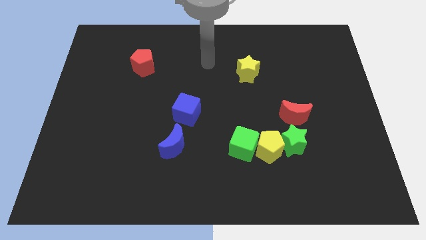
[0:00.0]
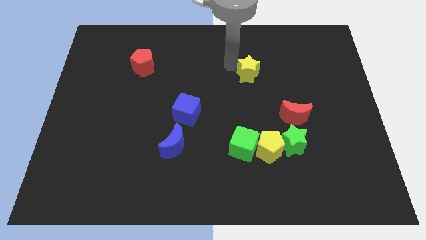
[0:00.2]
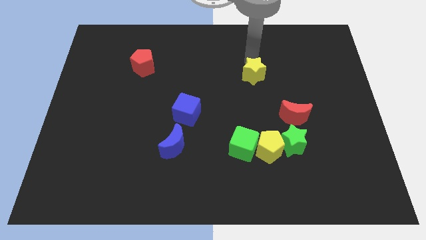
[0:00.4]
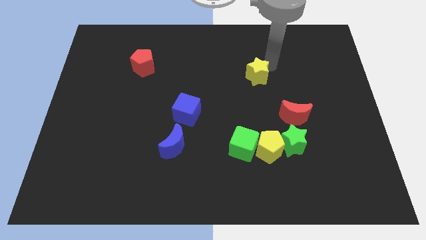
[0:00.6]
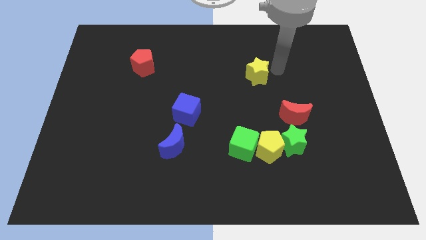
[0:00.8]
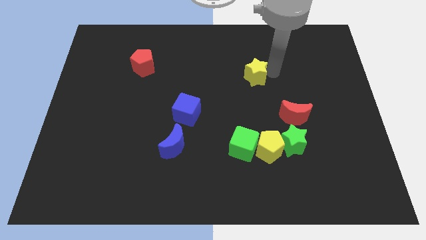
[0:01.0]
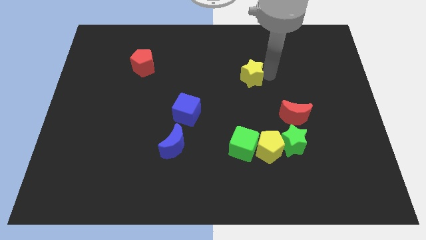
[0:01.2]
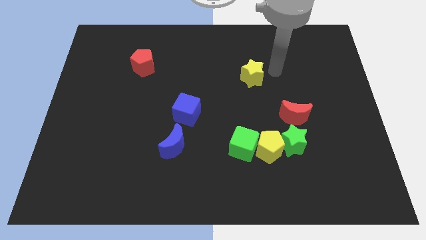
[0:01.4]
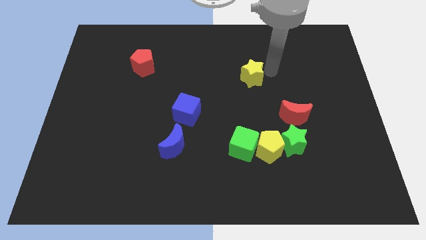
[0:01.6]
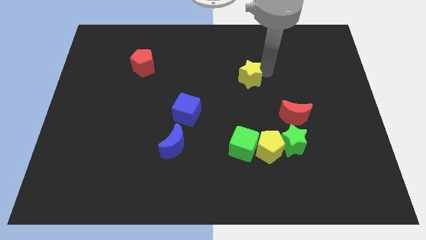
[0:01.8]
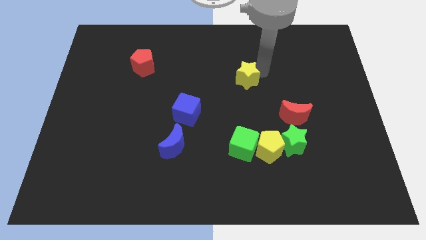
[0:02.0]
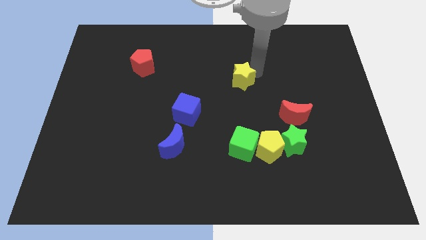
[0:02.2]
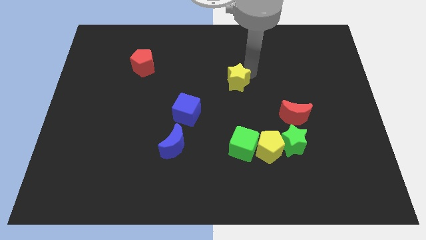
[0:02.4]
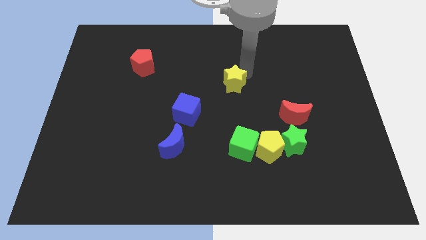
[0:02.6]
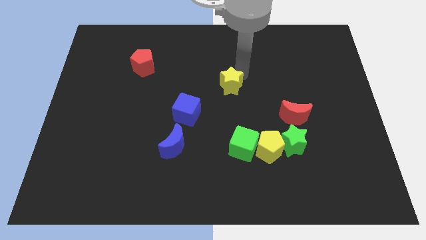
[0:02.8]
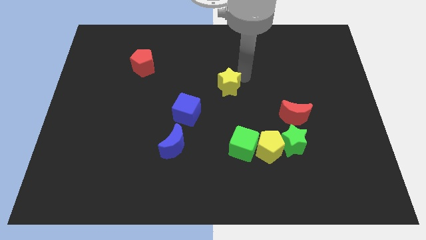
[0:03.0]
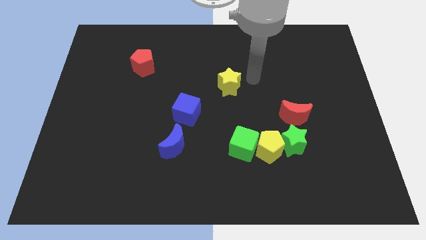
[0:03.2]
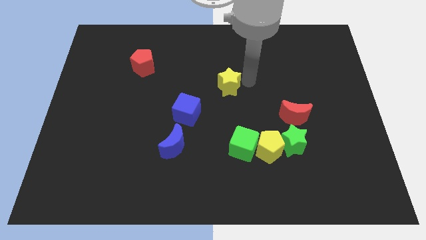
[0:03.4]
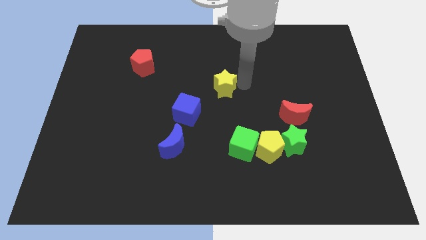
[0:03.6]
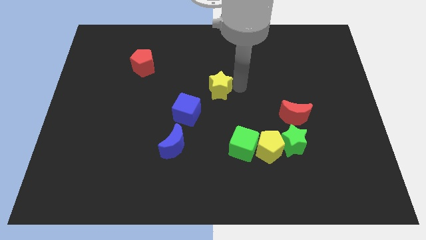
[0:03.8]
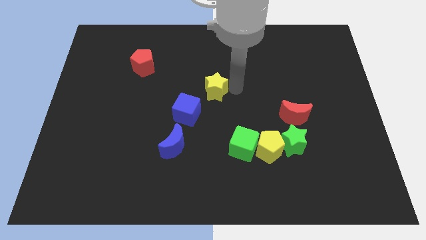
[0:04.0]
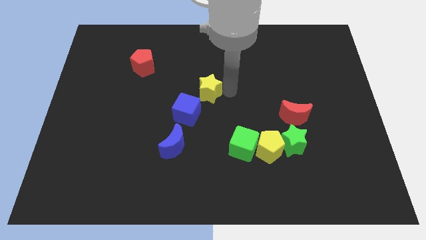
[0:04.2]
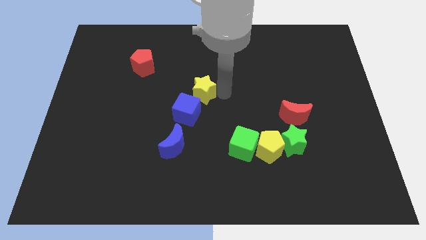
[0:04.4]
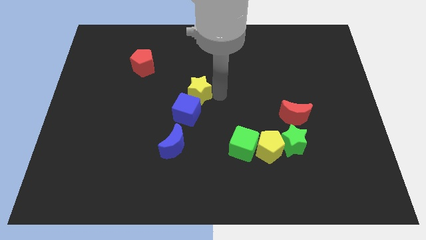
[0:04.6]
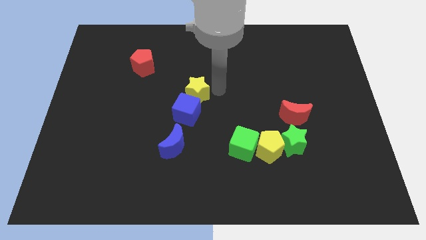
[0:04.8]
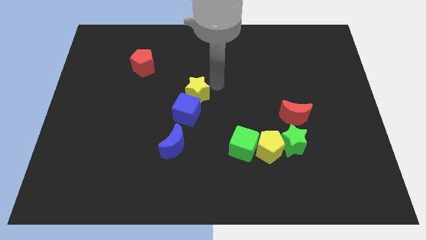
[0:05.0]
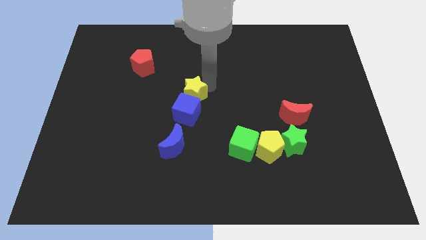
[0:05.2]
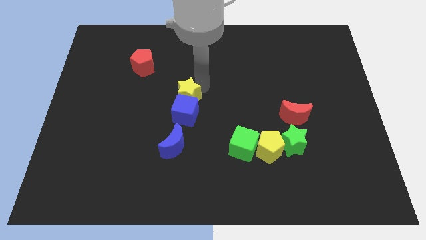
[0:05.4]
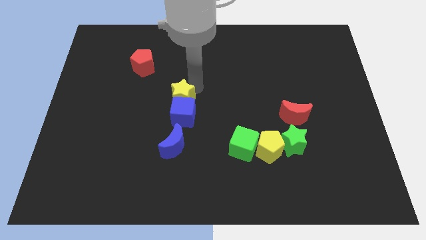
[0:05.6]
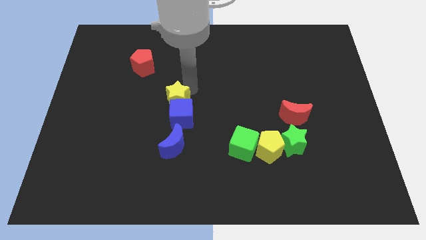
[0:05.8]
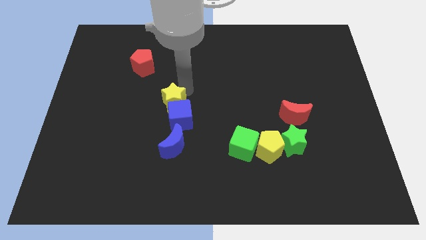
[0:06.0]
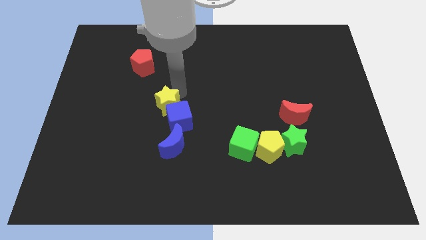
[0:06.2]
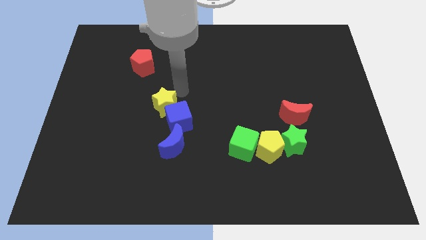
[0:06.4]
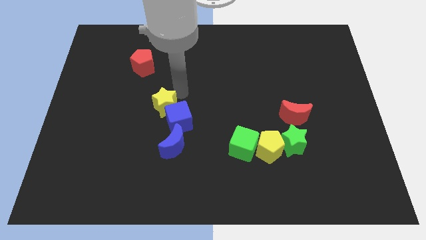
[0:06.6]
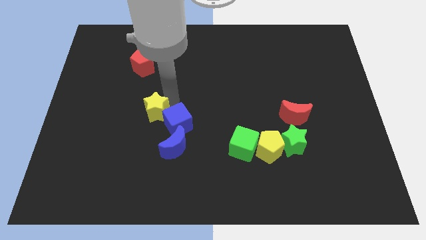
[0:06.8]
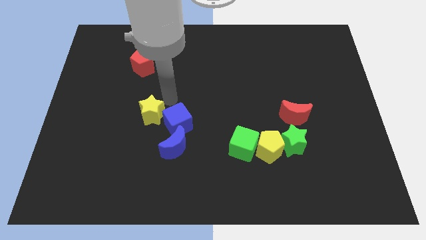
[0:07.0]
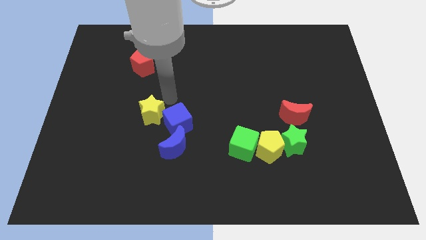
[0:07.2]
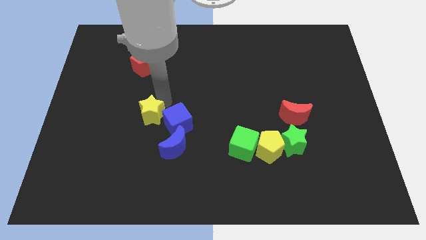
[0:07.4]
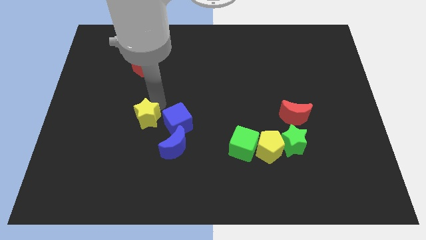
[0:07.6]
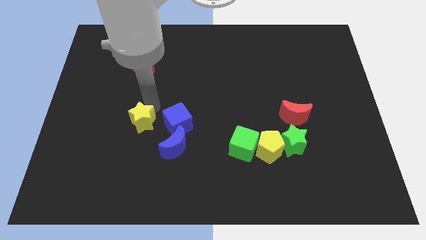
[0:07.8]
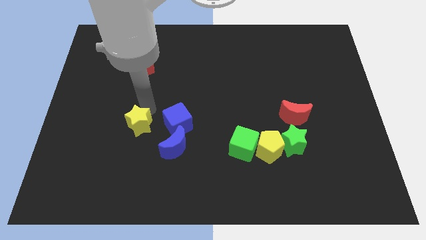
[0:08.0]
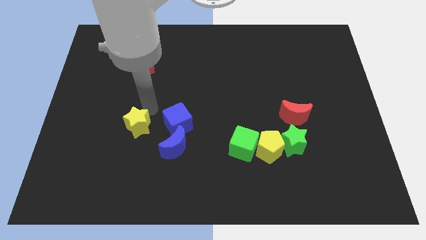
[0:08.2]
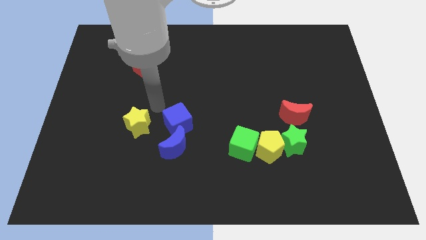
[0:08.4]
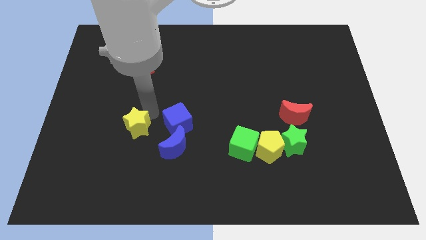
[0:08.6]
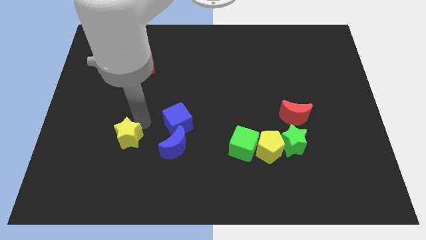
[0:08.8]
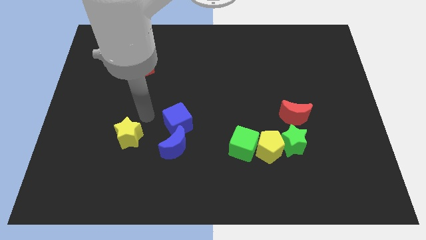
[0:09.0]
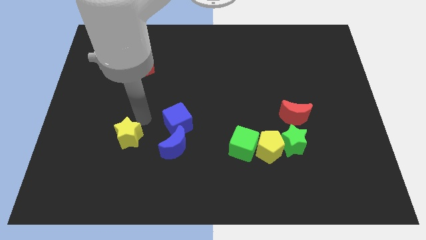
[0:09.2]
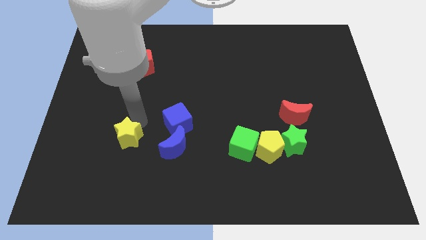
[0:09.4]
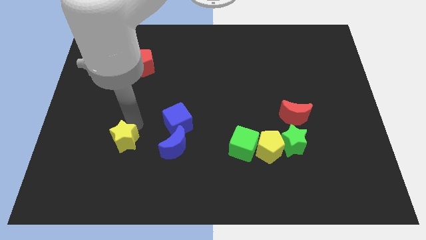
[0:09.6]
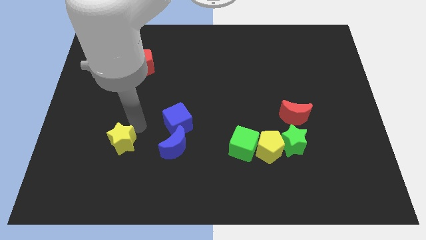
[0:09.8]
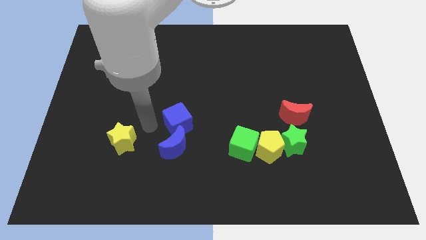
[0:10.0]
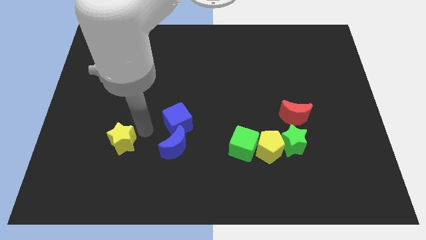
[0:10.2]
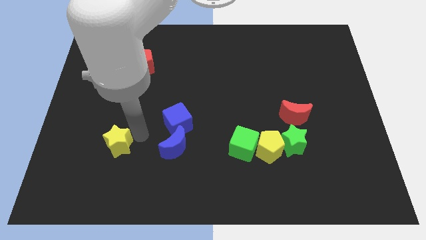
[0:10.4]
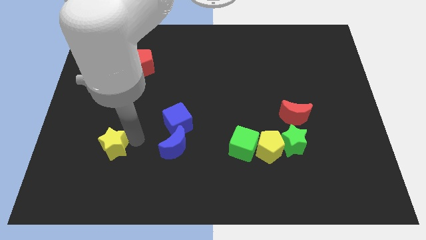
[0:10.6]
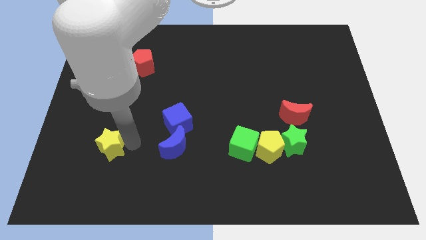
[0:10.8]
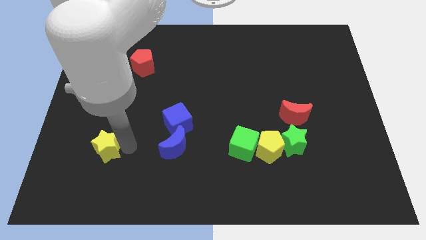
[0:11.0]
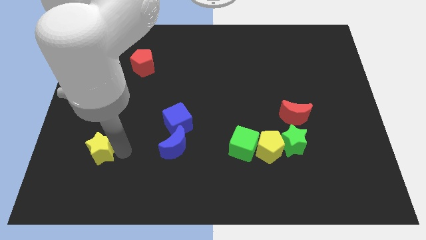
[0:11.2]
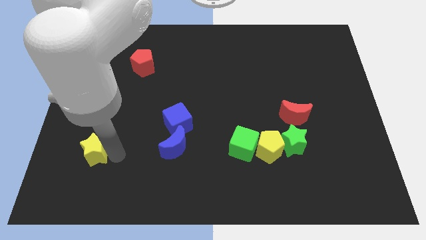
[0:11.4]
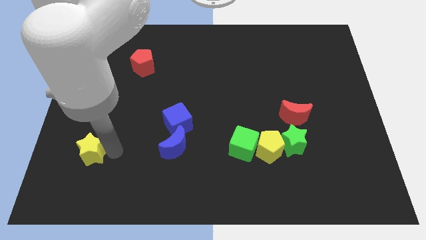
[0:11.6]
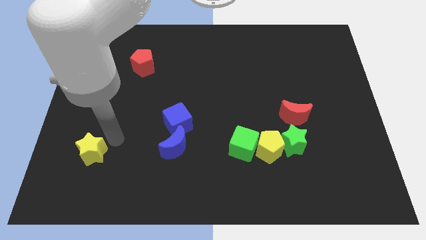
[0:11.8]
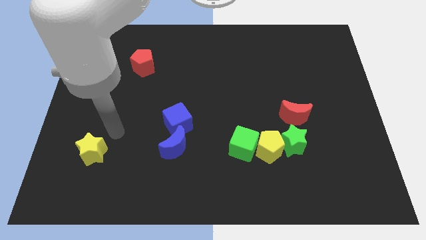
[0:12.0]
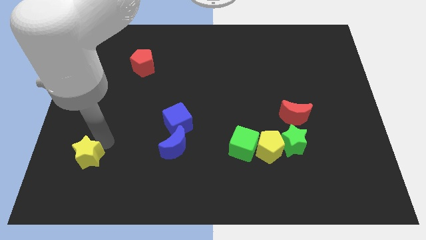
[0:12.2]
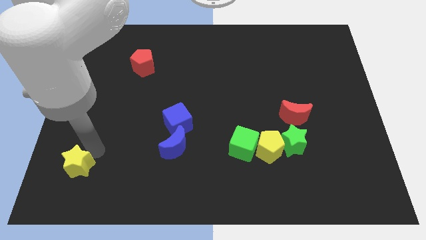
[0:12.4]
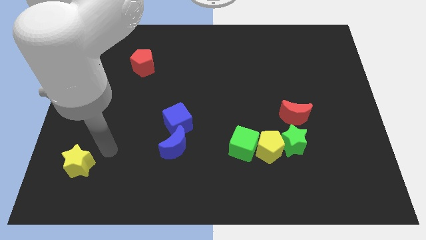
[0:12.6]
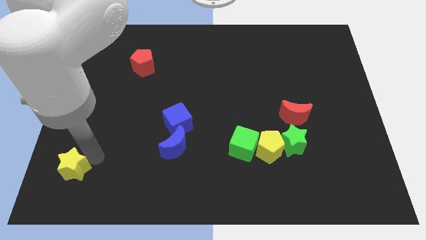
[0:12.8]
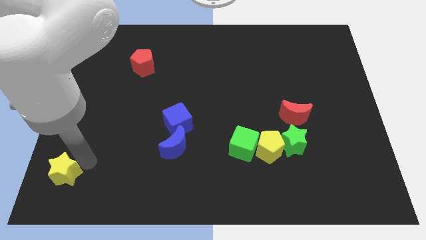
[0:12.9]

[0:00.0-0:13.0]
slide the yellow star to the bottom left
